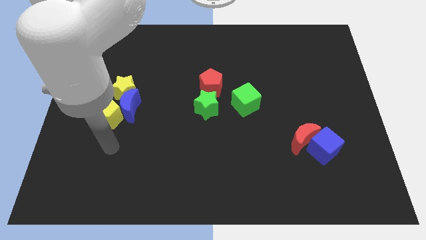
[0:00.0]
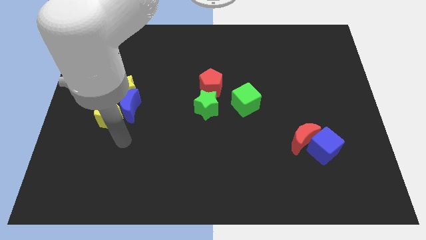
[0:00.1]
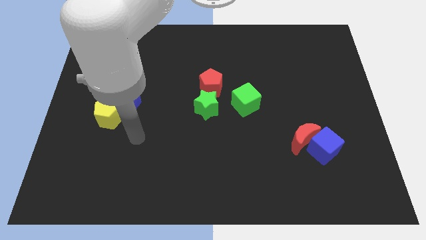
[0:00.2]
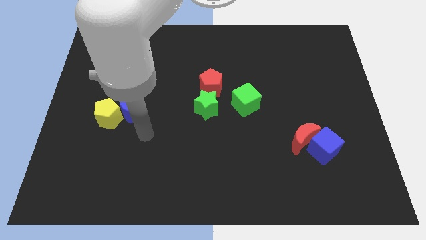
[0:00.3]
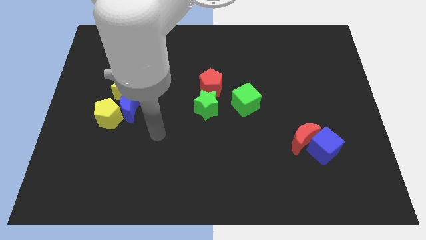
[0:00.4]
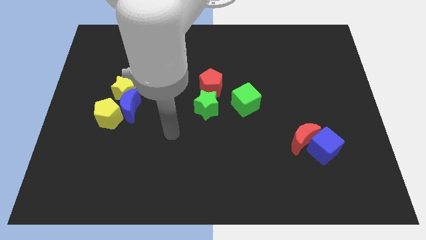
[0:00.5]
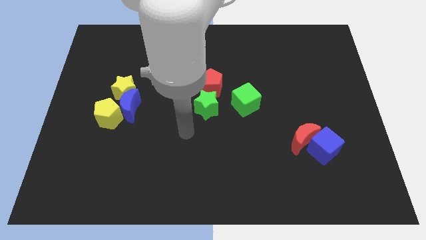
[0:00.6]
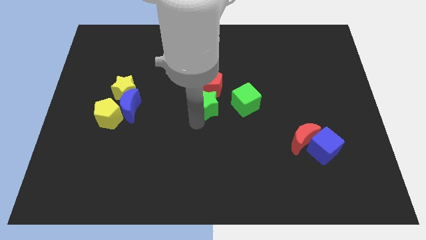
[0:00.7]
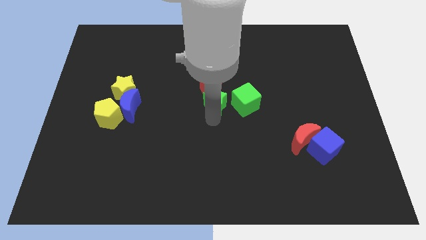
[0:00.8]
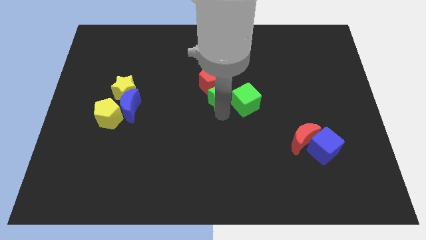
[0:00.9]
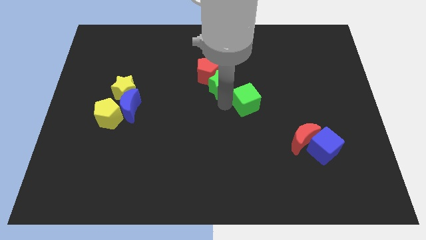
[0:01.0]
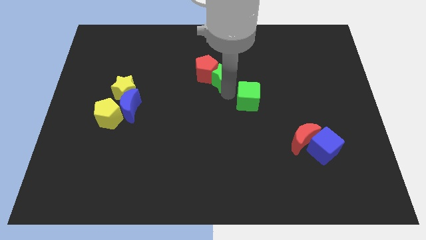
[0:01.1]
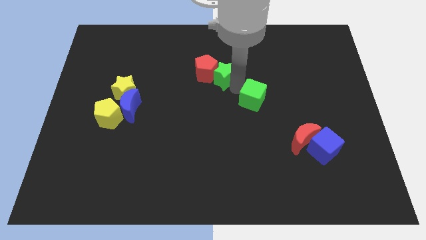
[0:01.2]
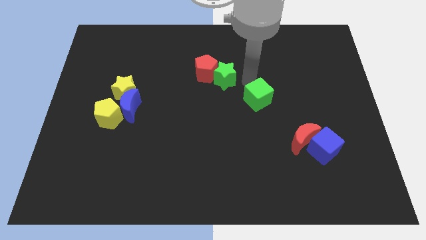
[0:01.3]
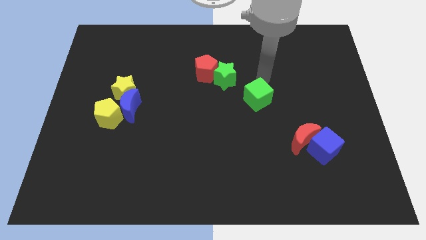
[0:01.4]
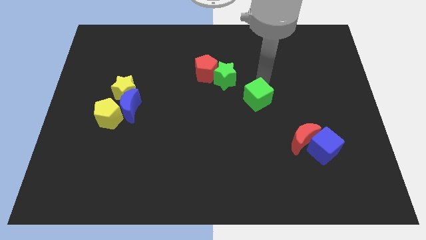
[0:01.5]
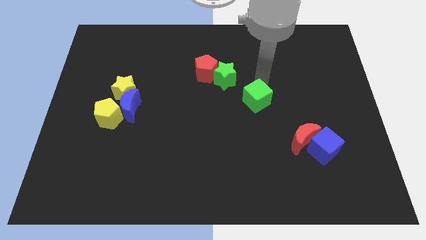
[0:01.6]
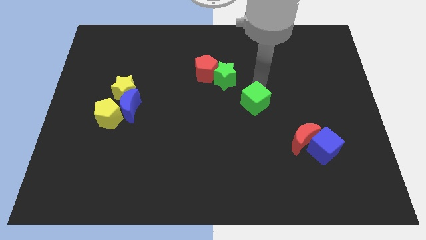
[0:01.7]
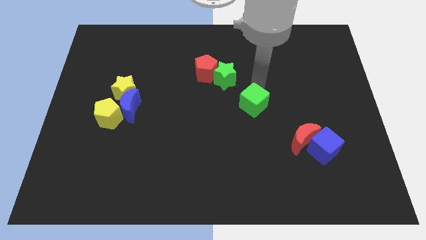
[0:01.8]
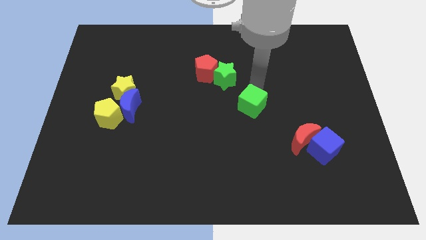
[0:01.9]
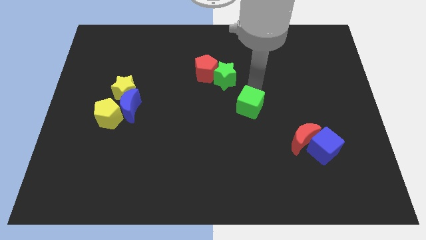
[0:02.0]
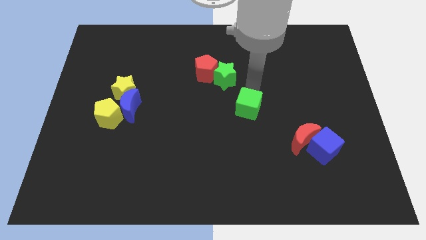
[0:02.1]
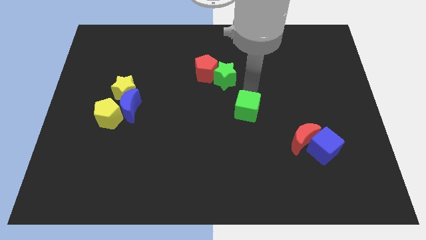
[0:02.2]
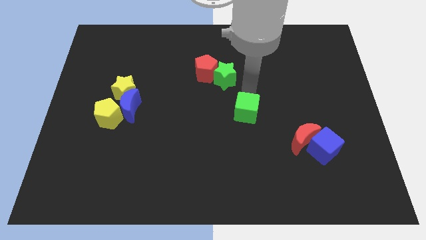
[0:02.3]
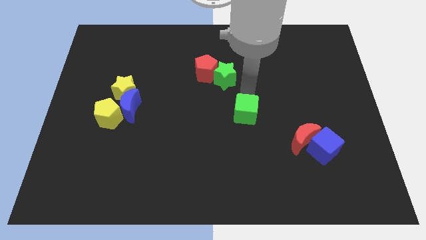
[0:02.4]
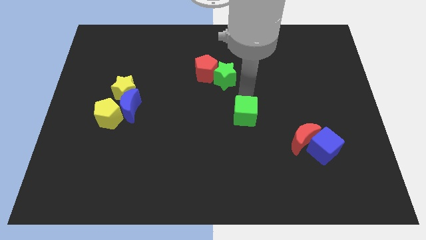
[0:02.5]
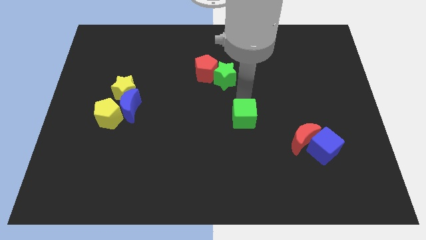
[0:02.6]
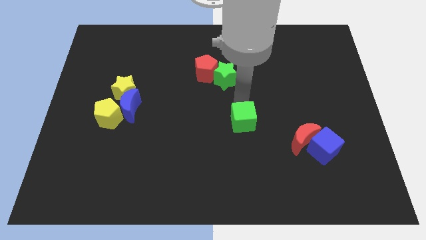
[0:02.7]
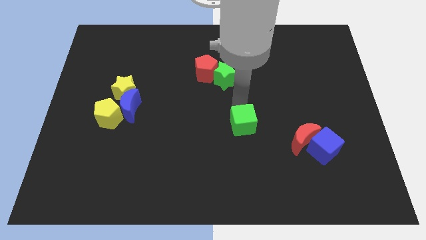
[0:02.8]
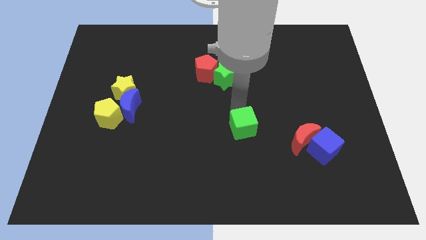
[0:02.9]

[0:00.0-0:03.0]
slightly move the green cube down

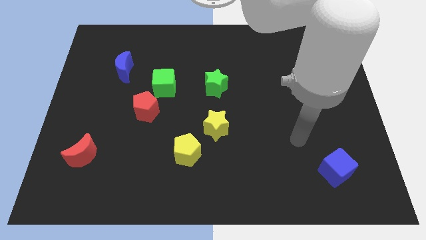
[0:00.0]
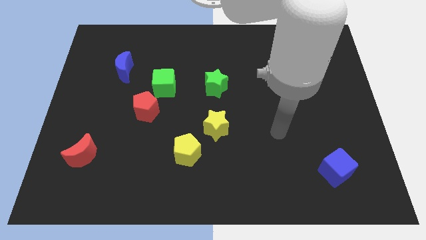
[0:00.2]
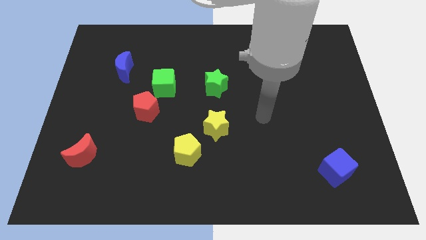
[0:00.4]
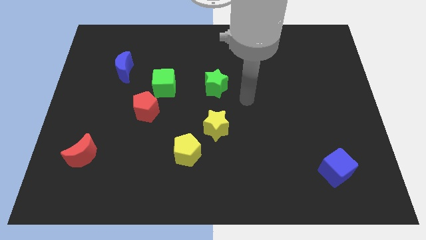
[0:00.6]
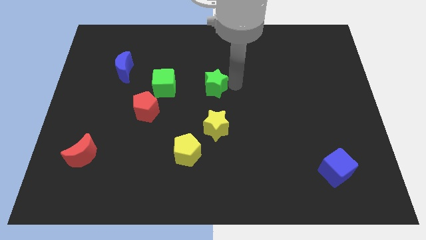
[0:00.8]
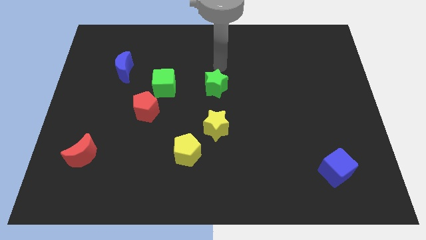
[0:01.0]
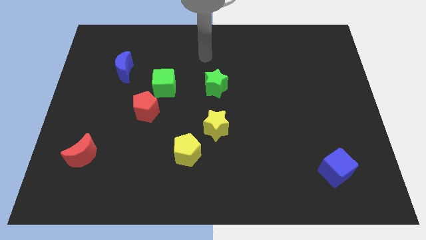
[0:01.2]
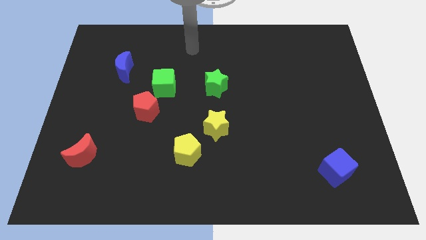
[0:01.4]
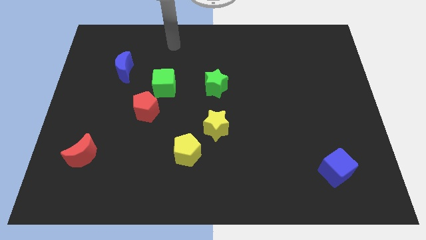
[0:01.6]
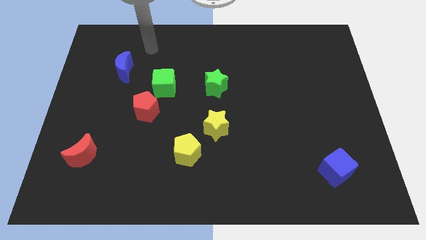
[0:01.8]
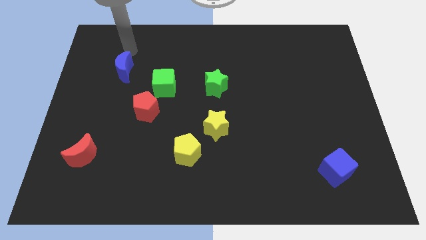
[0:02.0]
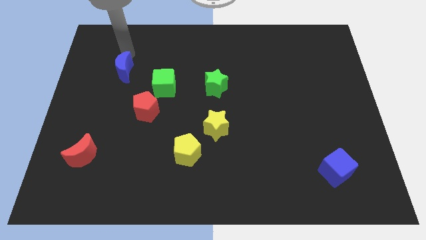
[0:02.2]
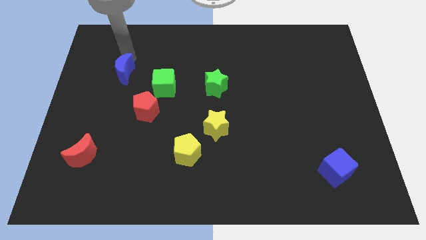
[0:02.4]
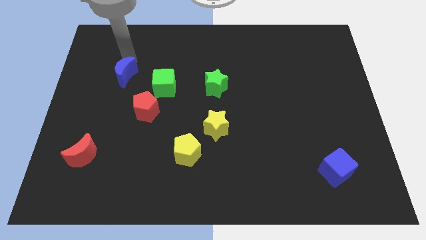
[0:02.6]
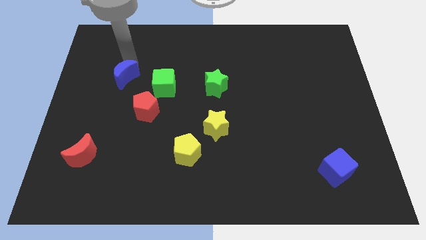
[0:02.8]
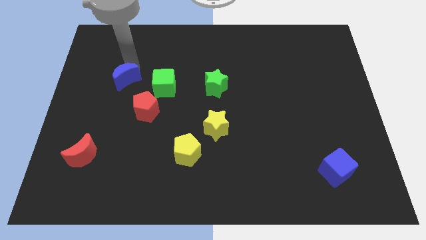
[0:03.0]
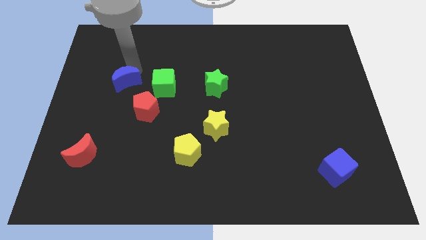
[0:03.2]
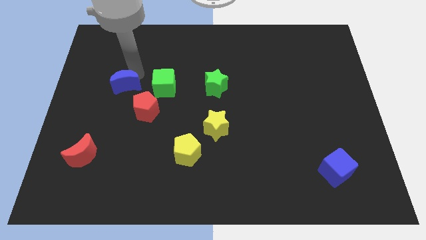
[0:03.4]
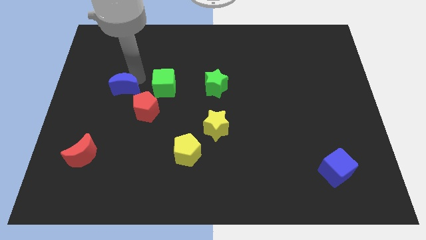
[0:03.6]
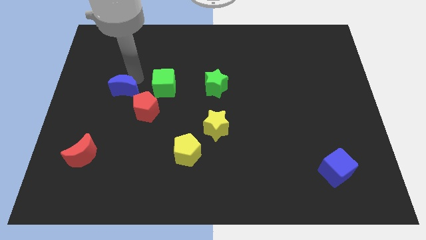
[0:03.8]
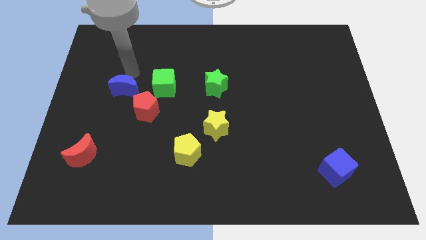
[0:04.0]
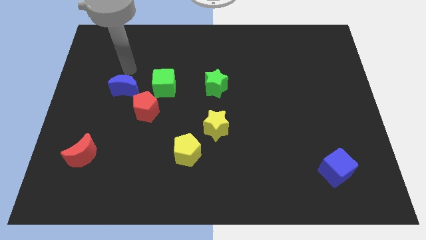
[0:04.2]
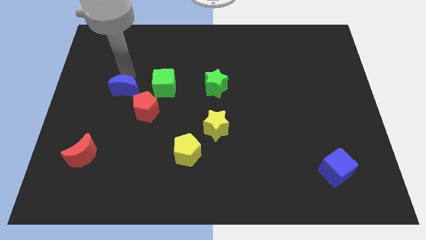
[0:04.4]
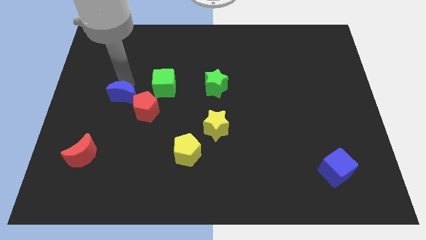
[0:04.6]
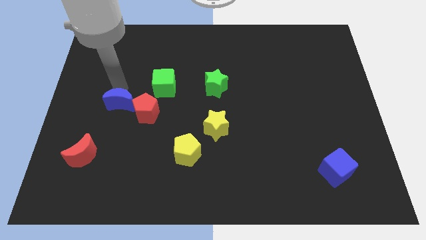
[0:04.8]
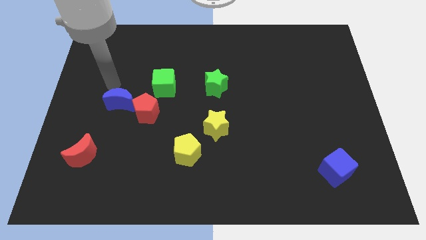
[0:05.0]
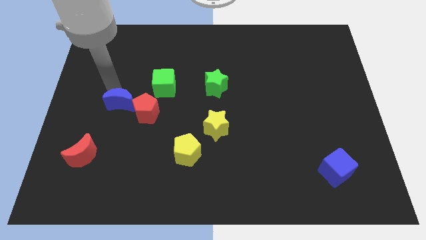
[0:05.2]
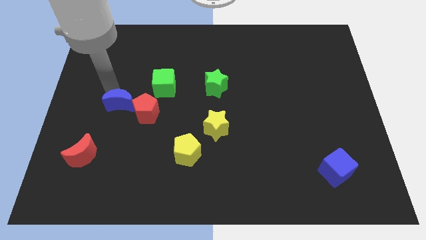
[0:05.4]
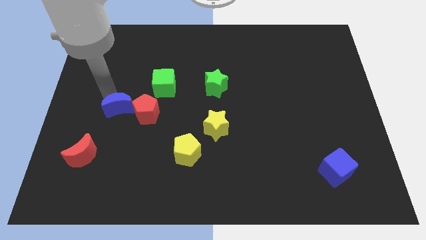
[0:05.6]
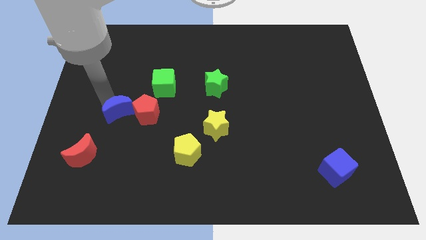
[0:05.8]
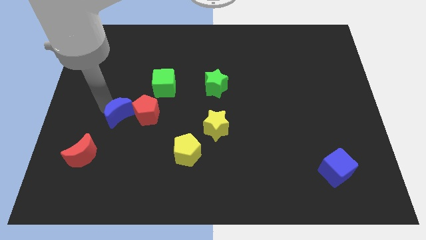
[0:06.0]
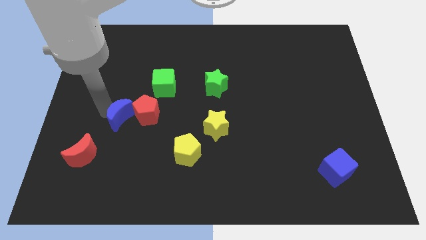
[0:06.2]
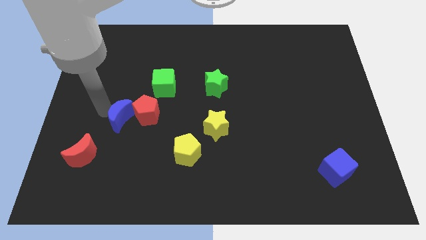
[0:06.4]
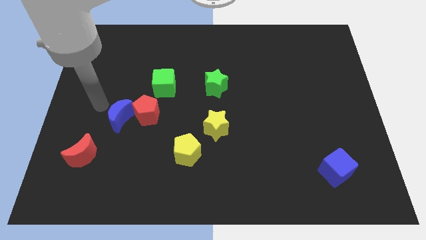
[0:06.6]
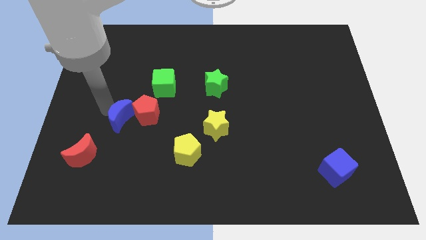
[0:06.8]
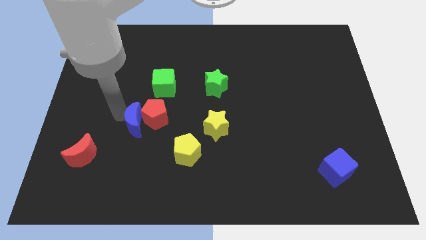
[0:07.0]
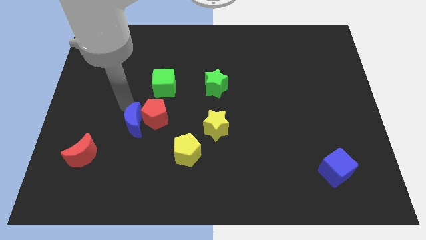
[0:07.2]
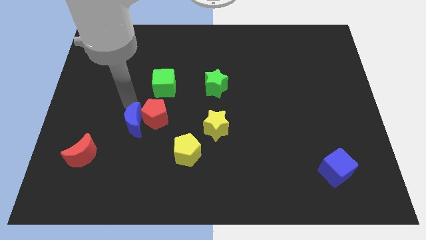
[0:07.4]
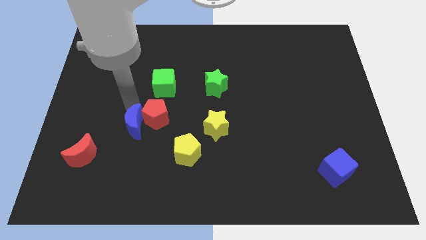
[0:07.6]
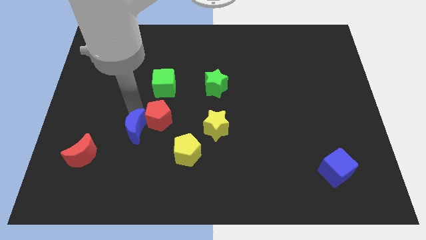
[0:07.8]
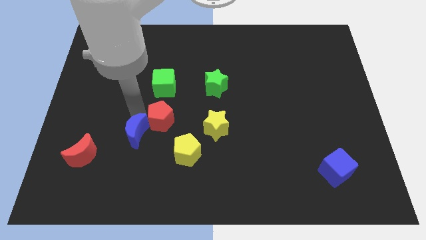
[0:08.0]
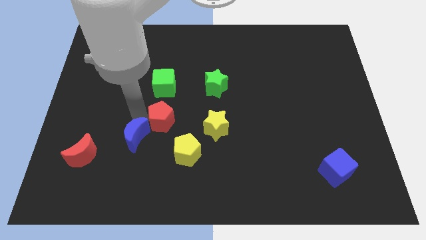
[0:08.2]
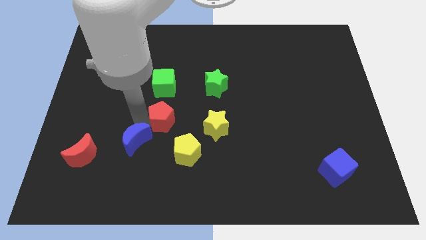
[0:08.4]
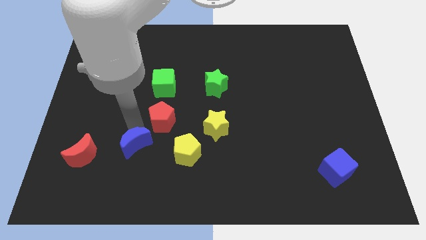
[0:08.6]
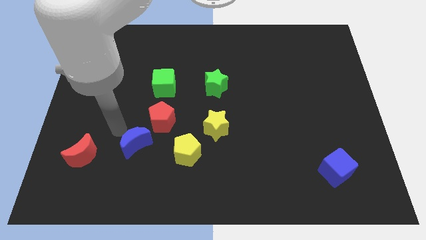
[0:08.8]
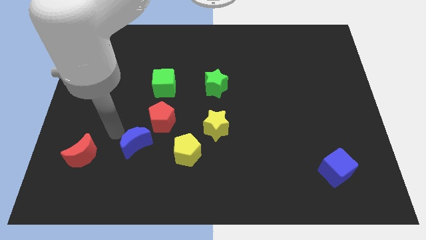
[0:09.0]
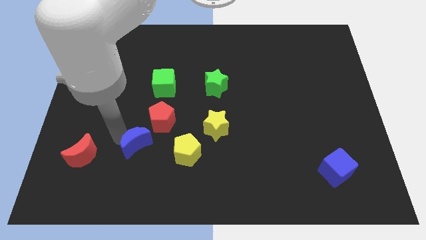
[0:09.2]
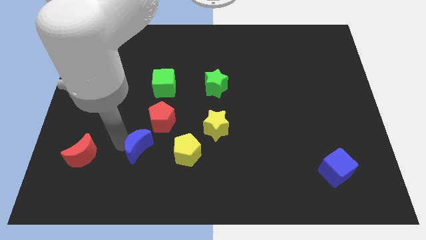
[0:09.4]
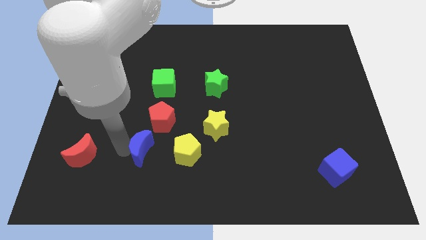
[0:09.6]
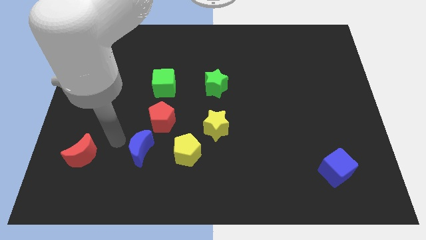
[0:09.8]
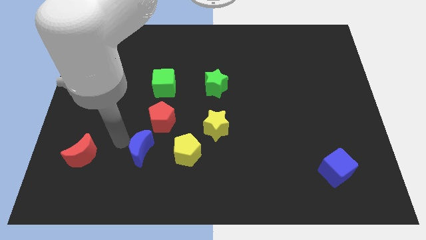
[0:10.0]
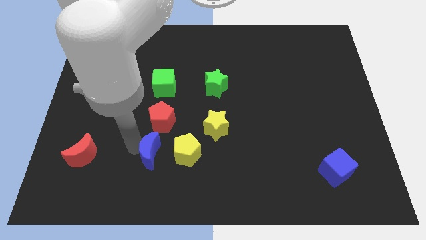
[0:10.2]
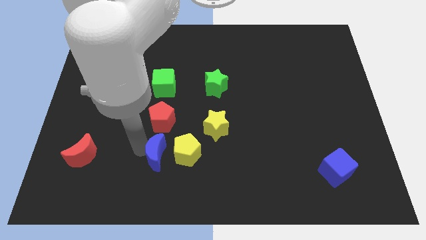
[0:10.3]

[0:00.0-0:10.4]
move the blue moon down and to the right

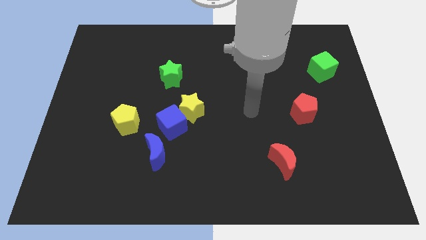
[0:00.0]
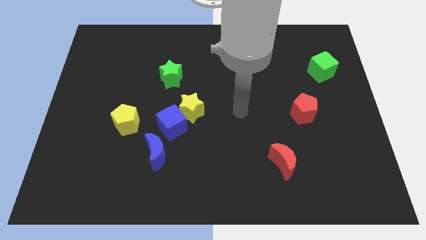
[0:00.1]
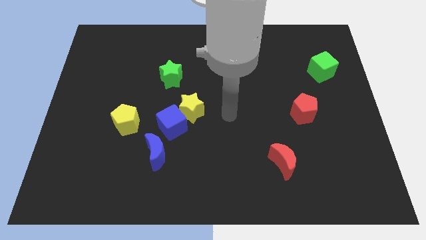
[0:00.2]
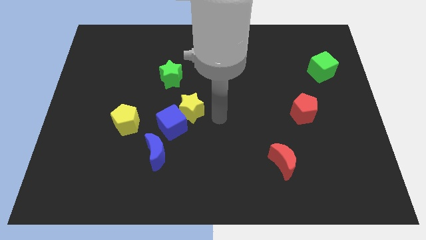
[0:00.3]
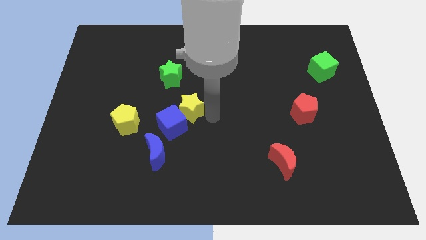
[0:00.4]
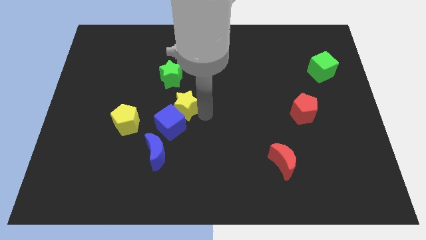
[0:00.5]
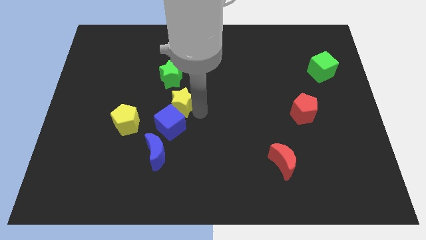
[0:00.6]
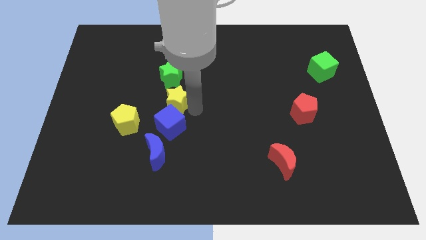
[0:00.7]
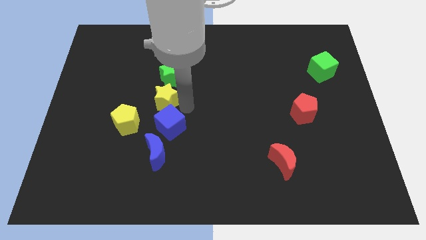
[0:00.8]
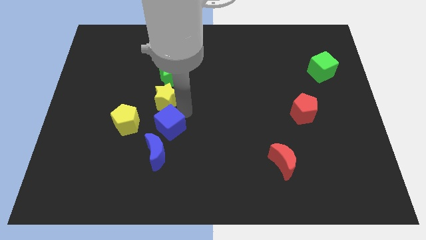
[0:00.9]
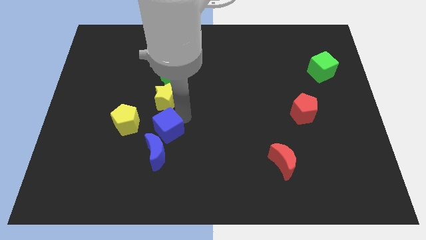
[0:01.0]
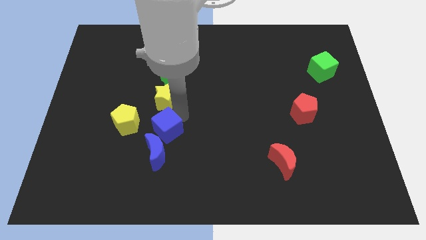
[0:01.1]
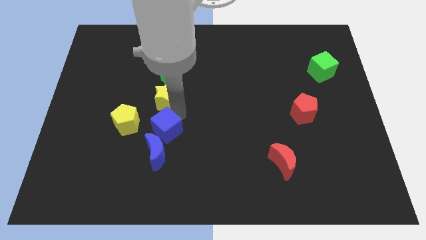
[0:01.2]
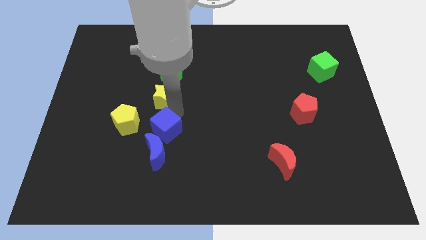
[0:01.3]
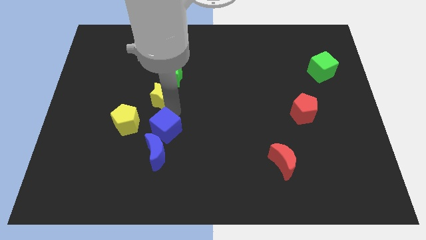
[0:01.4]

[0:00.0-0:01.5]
slightly slide the yellow star up and to the left
